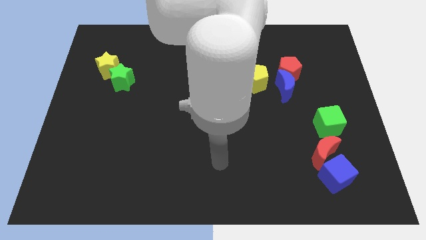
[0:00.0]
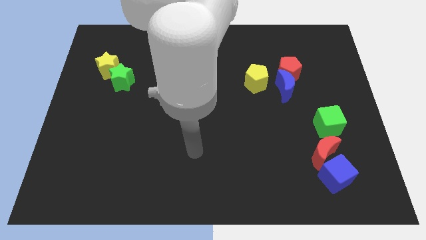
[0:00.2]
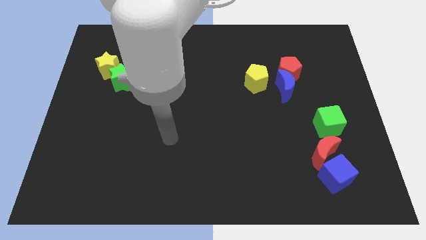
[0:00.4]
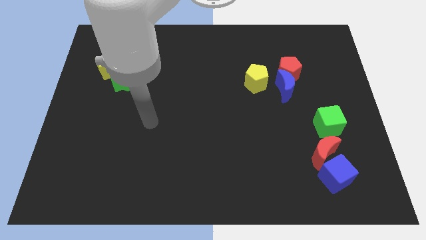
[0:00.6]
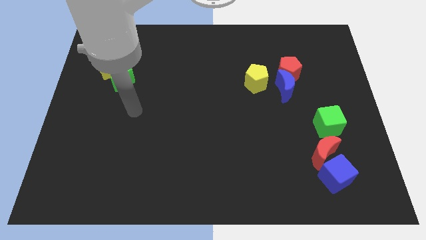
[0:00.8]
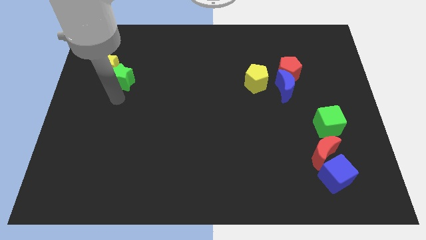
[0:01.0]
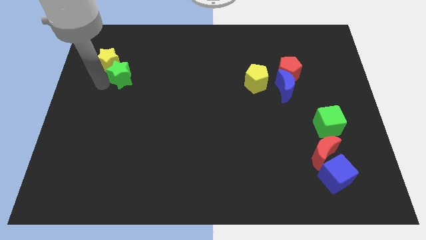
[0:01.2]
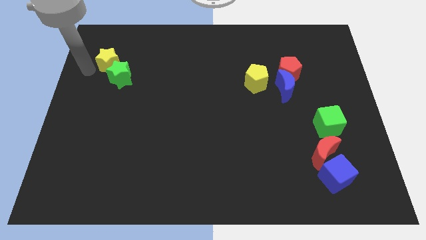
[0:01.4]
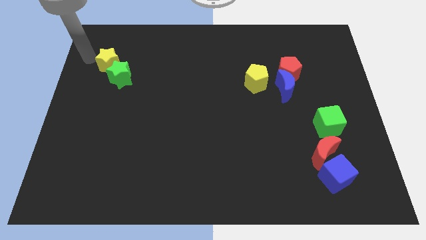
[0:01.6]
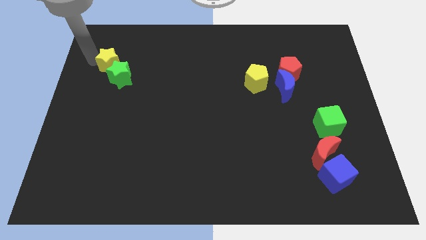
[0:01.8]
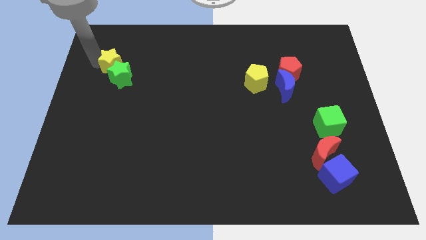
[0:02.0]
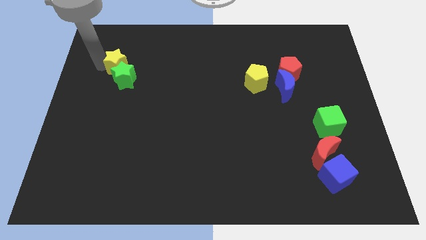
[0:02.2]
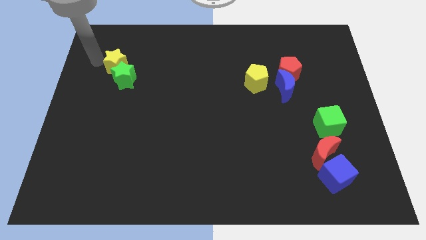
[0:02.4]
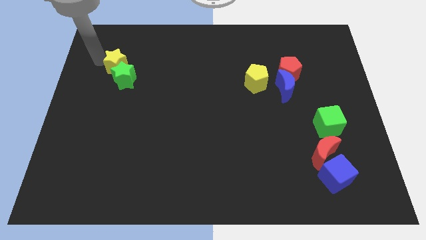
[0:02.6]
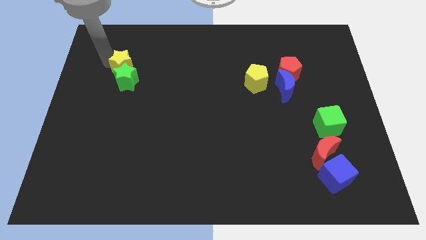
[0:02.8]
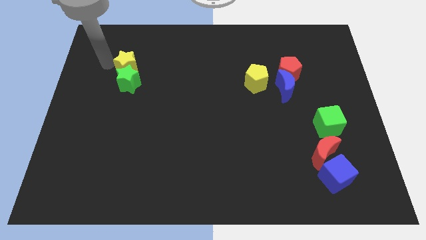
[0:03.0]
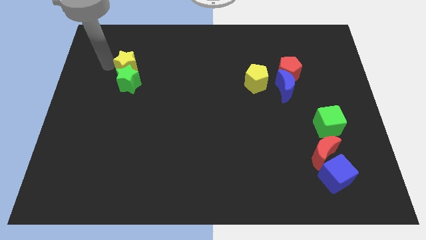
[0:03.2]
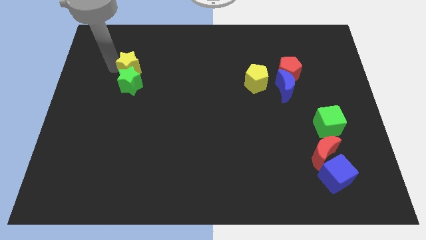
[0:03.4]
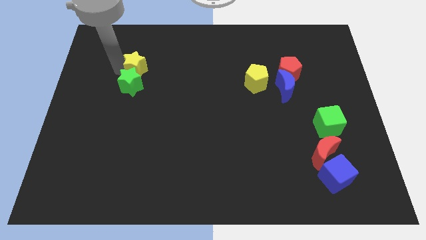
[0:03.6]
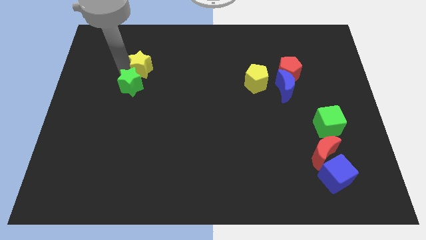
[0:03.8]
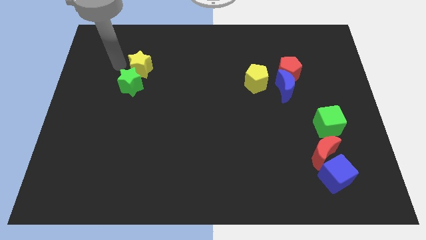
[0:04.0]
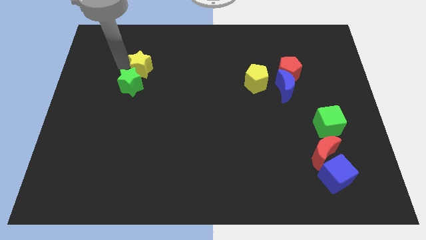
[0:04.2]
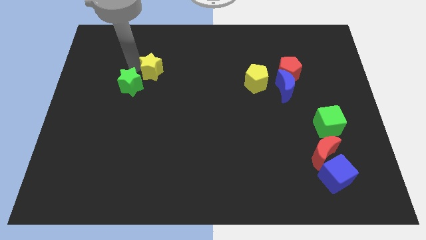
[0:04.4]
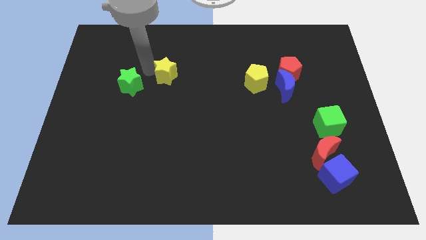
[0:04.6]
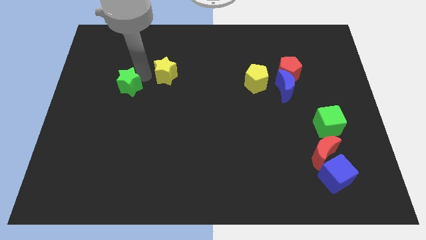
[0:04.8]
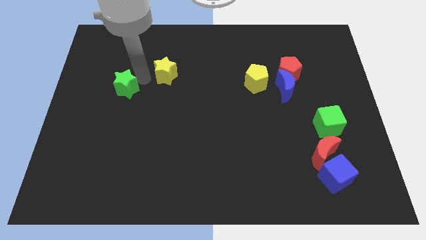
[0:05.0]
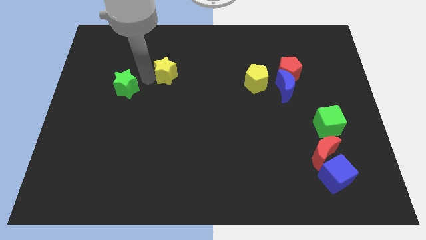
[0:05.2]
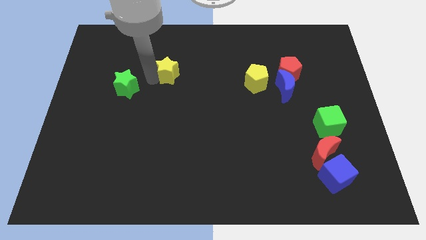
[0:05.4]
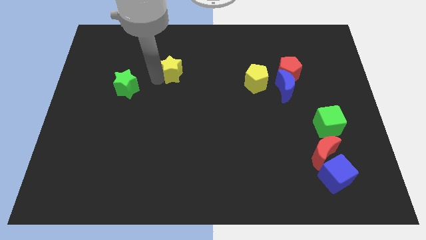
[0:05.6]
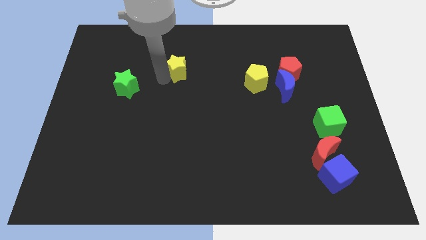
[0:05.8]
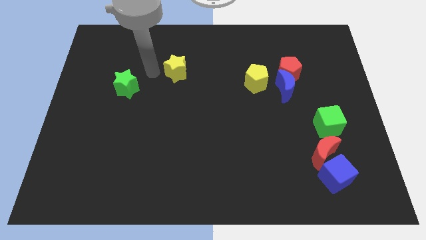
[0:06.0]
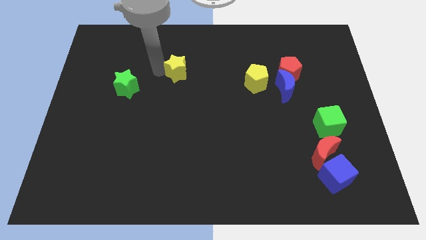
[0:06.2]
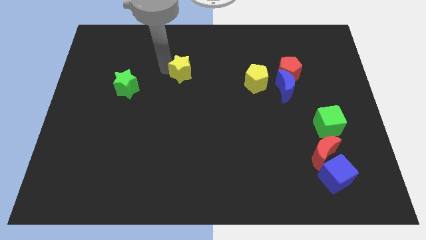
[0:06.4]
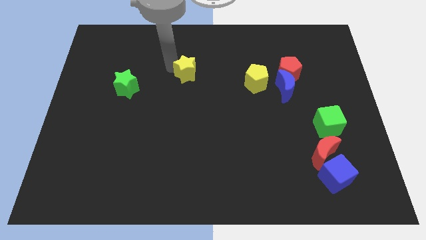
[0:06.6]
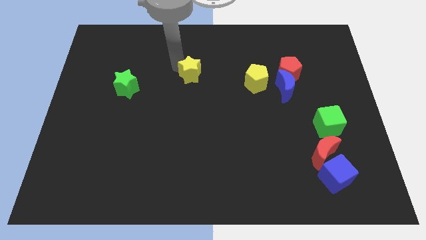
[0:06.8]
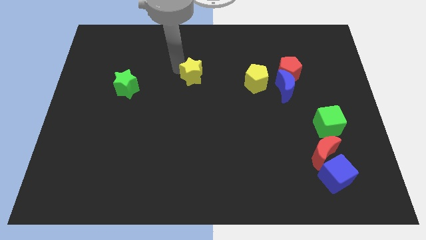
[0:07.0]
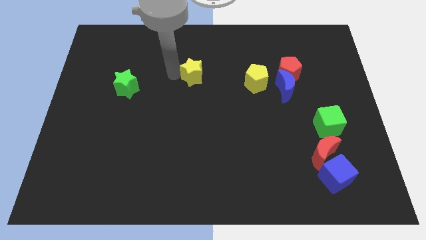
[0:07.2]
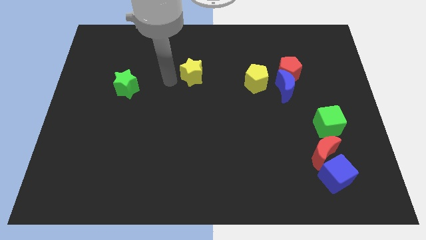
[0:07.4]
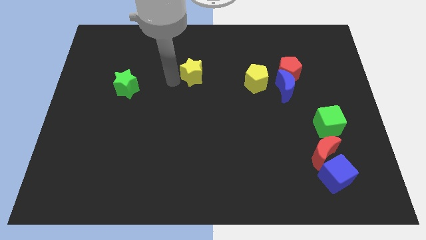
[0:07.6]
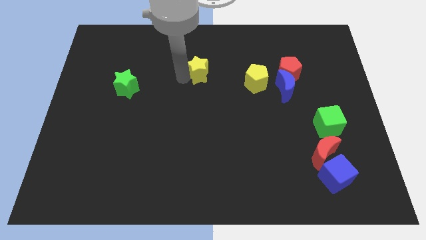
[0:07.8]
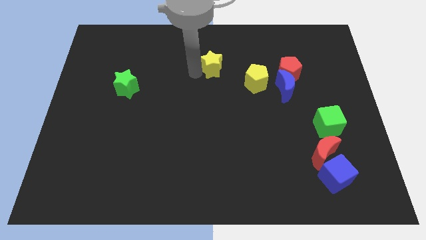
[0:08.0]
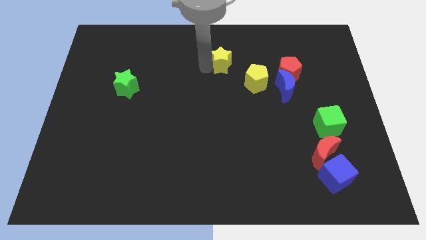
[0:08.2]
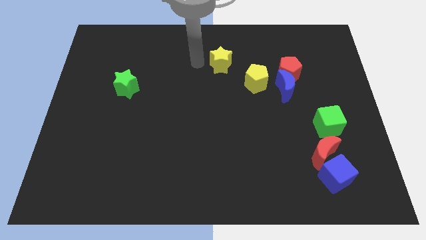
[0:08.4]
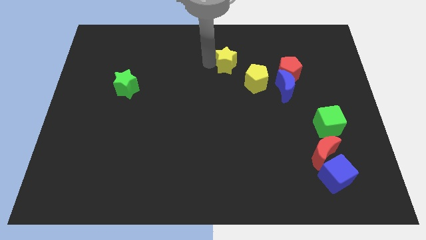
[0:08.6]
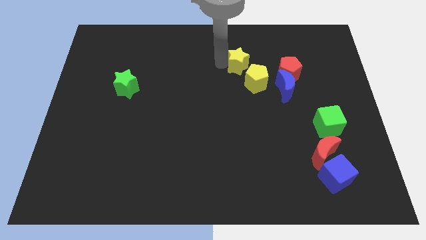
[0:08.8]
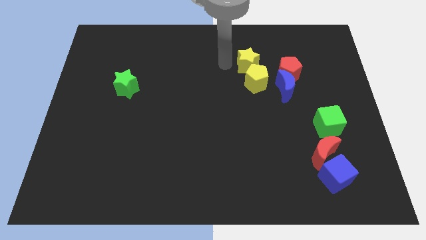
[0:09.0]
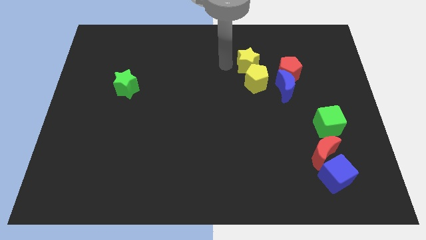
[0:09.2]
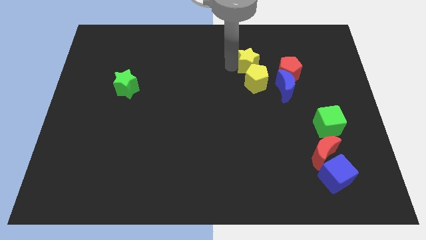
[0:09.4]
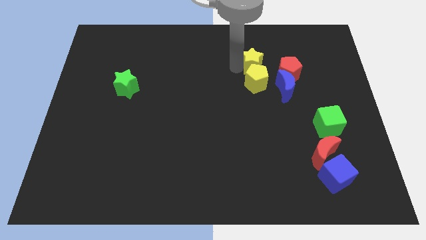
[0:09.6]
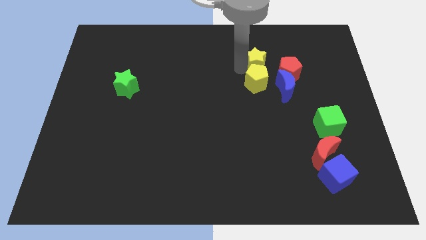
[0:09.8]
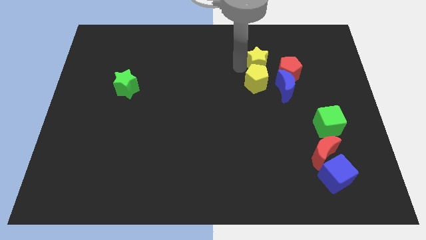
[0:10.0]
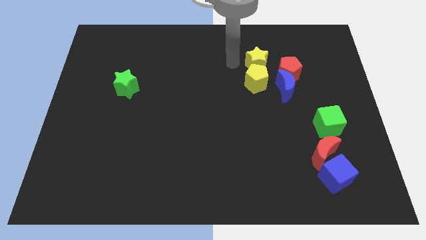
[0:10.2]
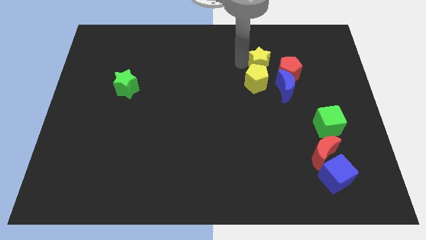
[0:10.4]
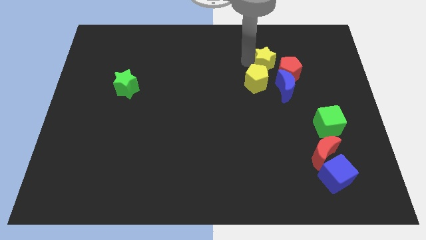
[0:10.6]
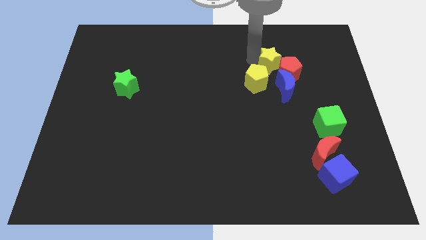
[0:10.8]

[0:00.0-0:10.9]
push the yellow star close to the red pentagon

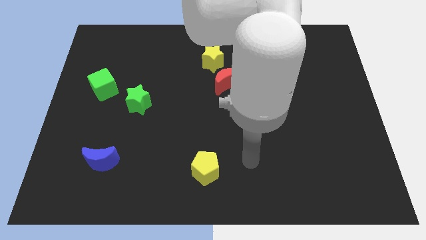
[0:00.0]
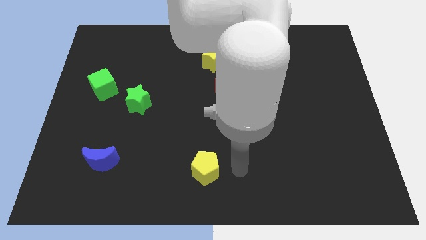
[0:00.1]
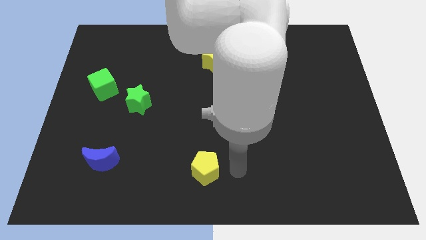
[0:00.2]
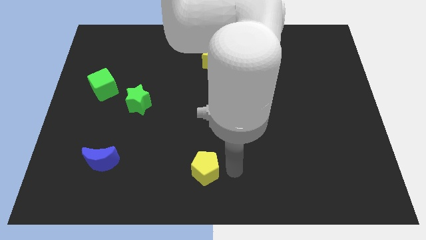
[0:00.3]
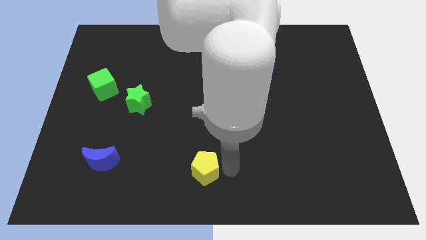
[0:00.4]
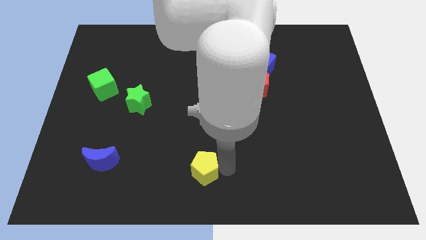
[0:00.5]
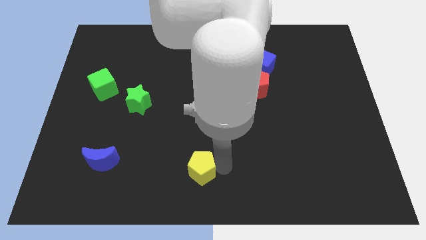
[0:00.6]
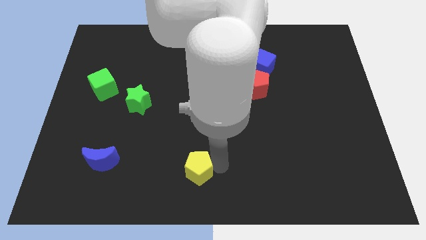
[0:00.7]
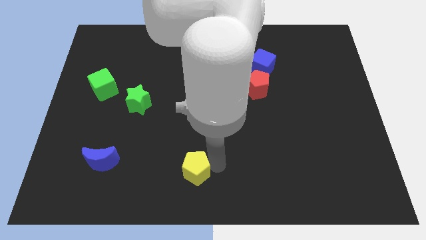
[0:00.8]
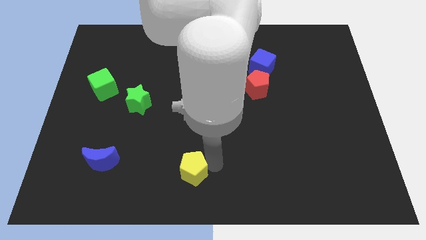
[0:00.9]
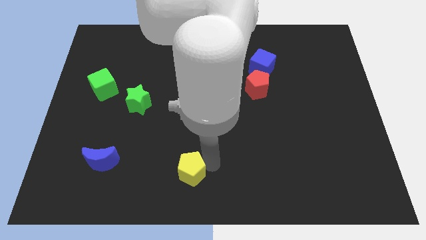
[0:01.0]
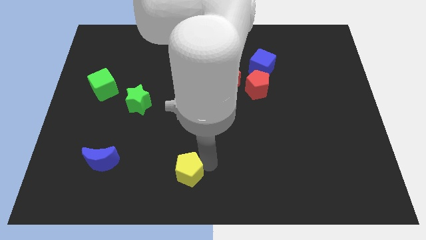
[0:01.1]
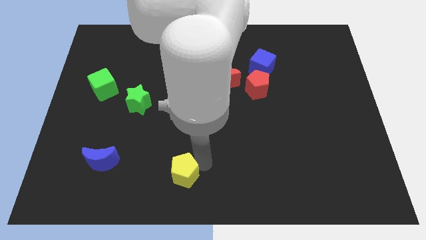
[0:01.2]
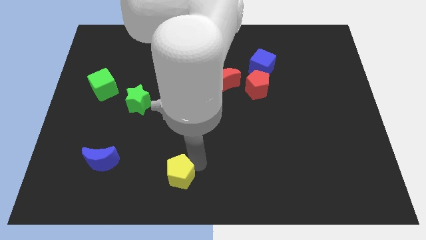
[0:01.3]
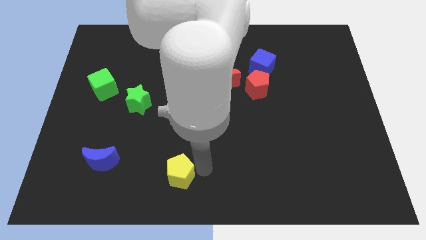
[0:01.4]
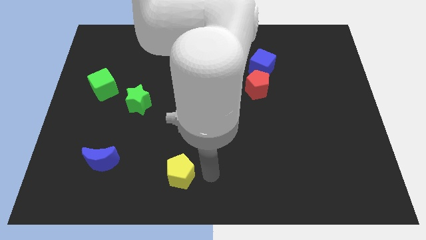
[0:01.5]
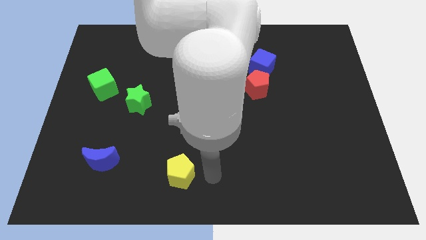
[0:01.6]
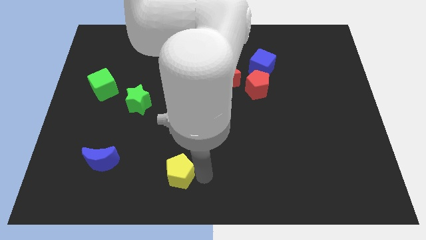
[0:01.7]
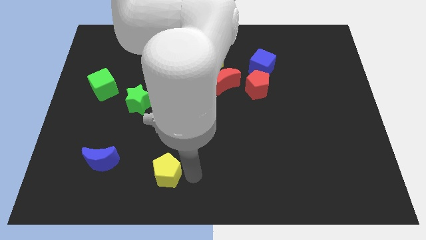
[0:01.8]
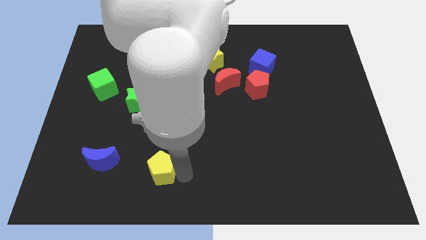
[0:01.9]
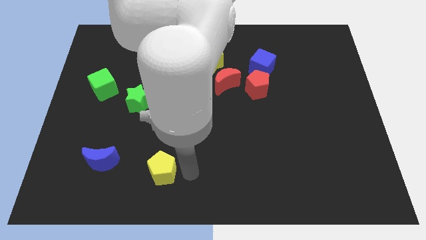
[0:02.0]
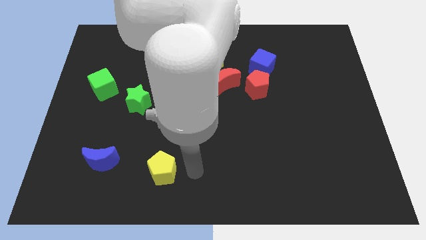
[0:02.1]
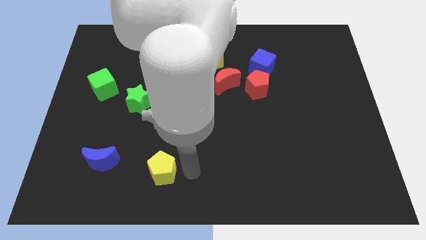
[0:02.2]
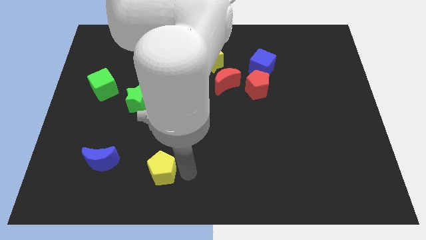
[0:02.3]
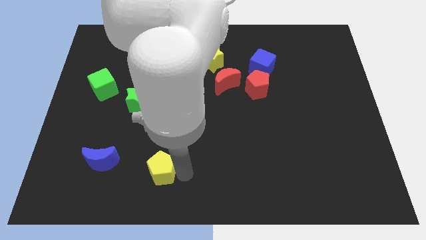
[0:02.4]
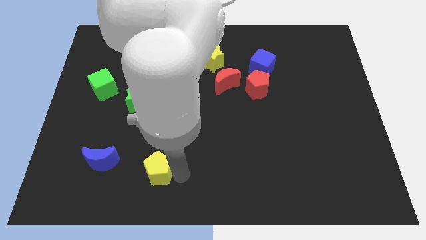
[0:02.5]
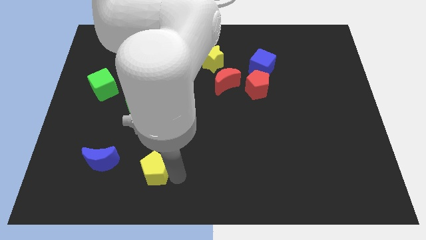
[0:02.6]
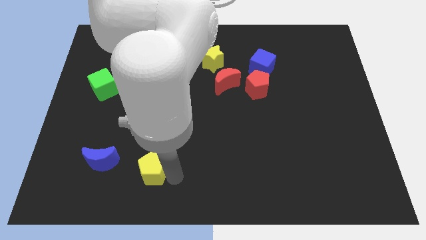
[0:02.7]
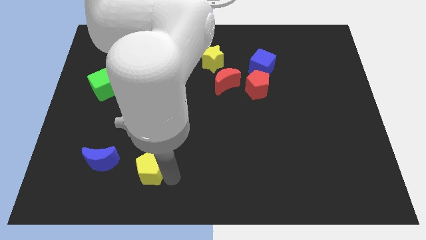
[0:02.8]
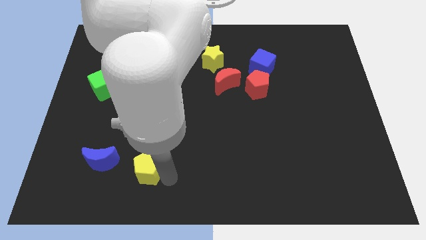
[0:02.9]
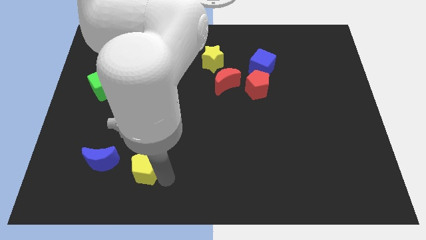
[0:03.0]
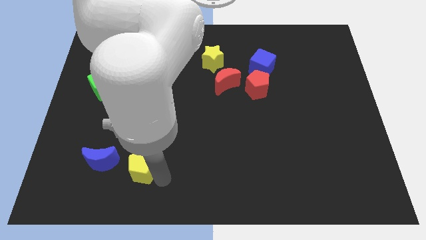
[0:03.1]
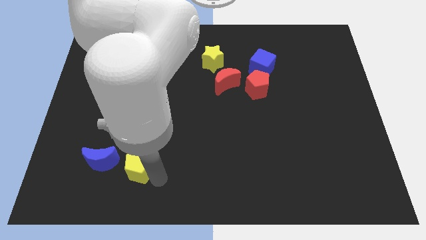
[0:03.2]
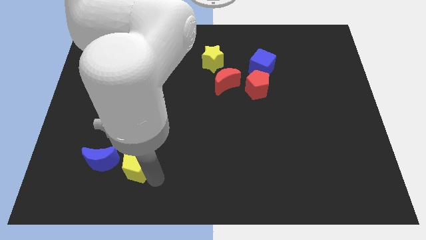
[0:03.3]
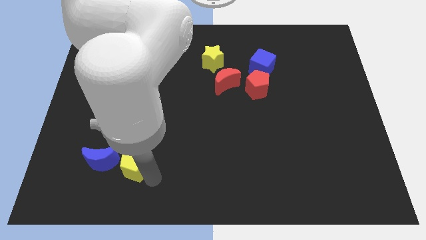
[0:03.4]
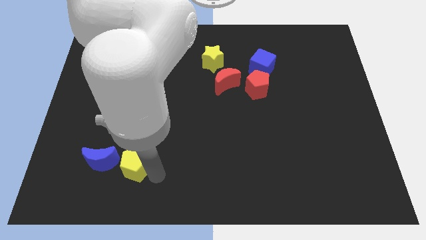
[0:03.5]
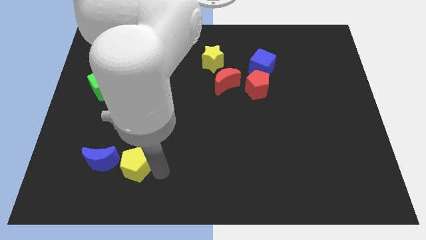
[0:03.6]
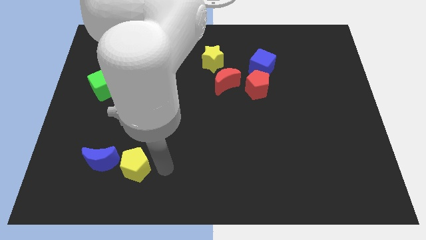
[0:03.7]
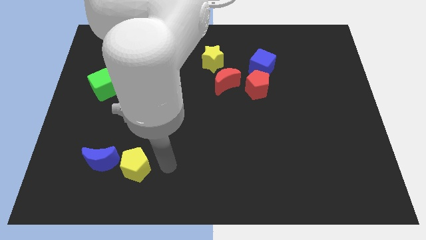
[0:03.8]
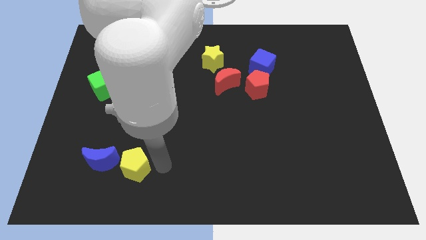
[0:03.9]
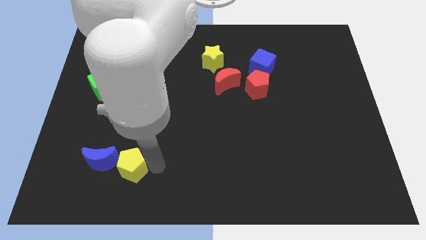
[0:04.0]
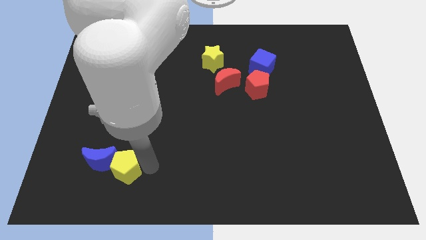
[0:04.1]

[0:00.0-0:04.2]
slide the yellow pentagon to the blue moon
